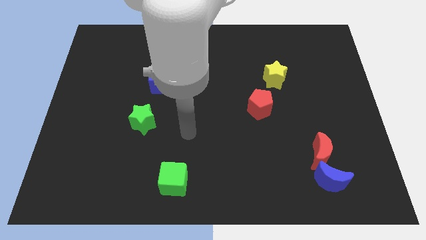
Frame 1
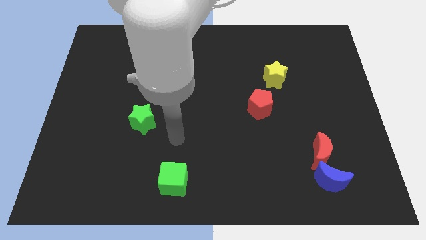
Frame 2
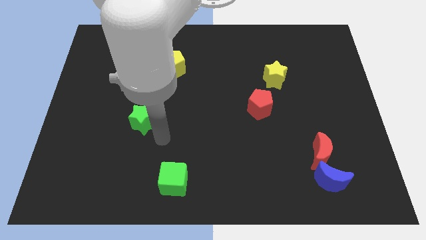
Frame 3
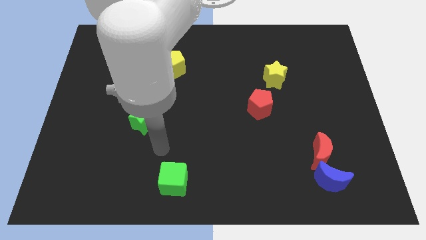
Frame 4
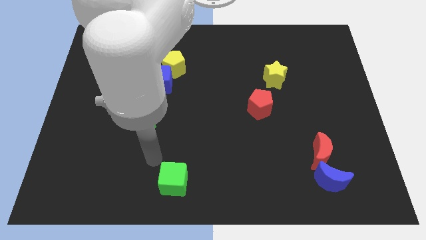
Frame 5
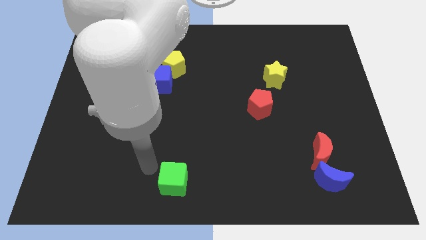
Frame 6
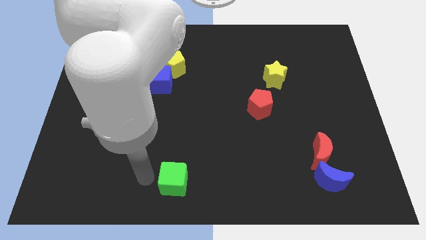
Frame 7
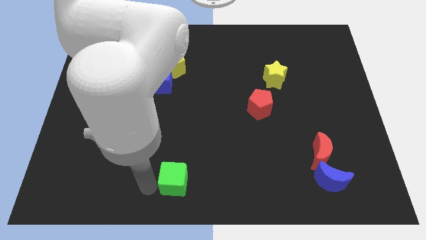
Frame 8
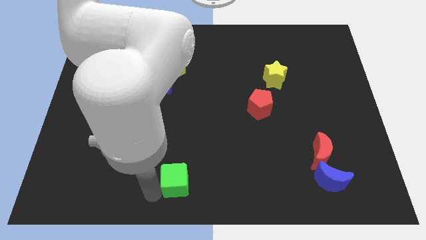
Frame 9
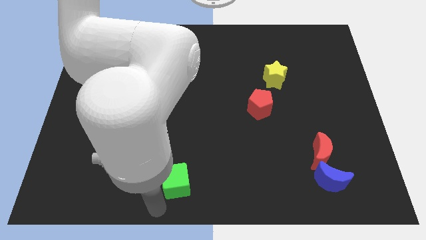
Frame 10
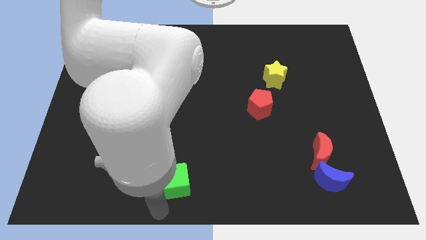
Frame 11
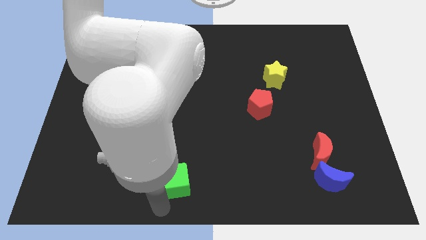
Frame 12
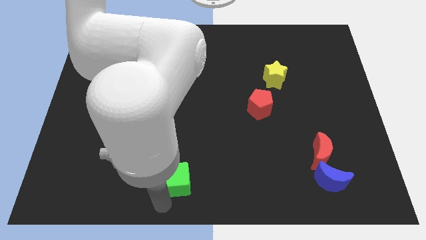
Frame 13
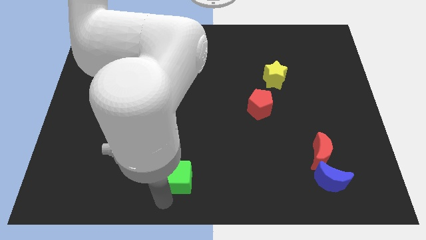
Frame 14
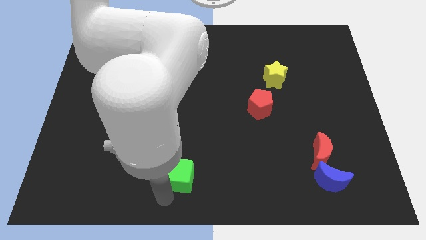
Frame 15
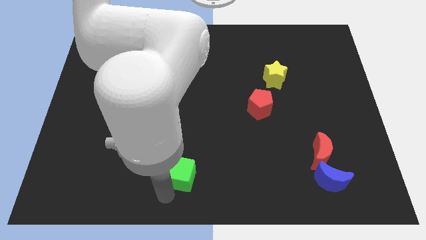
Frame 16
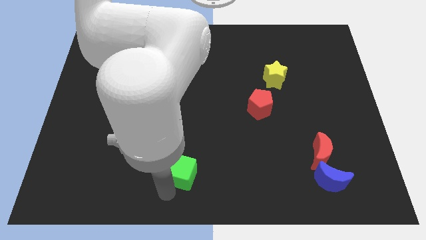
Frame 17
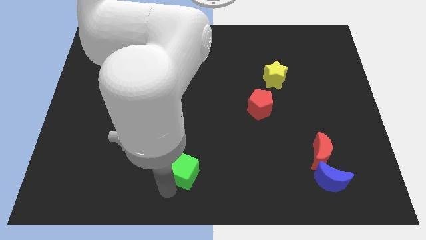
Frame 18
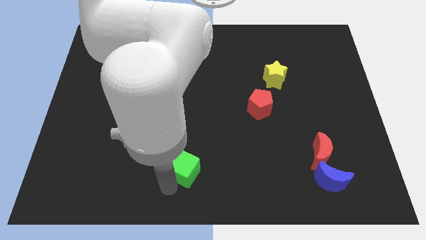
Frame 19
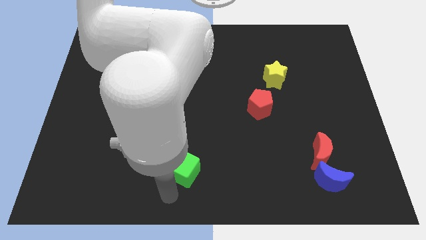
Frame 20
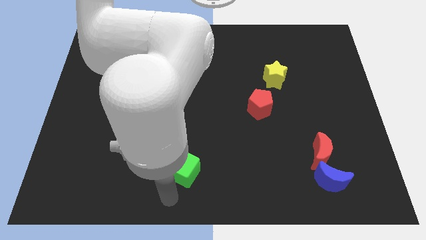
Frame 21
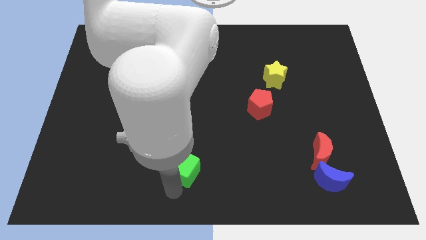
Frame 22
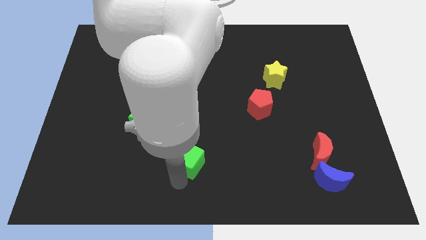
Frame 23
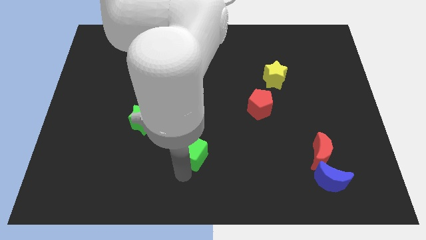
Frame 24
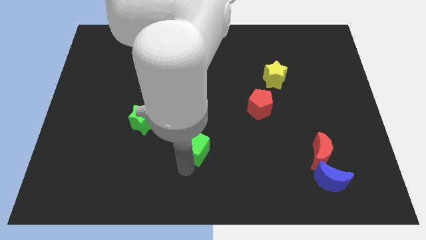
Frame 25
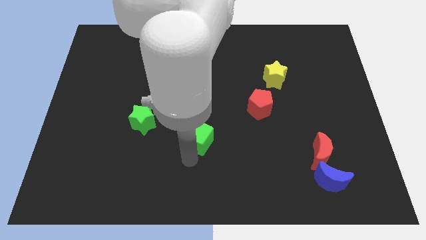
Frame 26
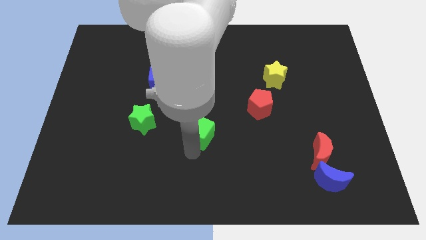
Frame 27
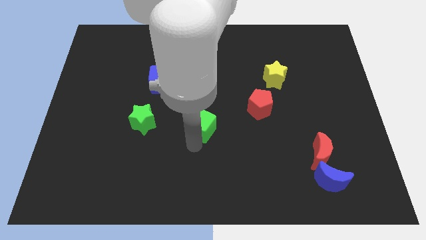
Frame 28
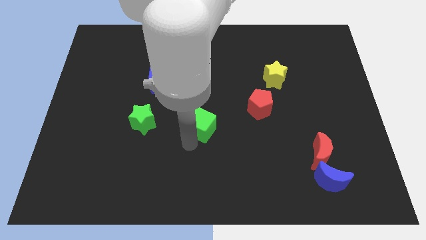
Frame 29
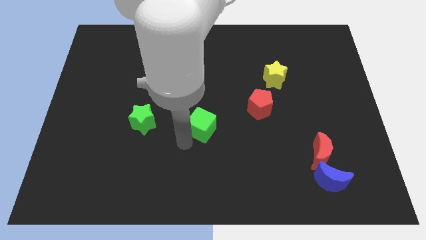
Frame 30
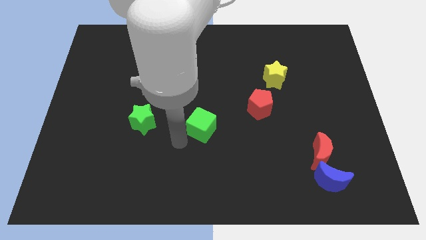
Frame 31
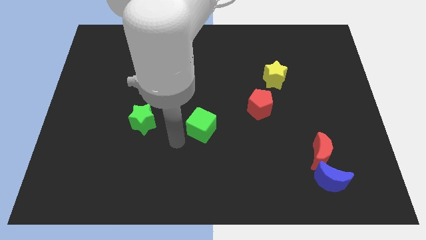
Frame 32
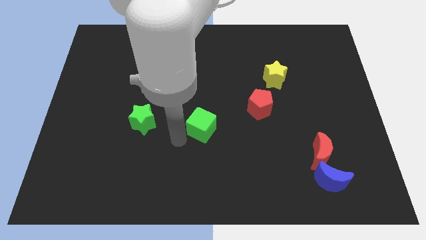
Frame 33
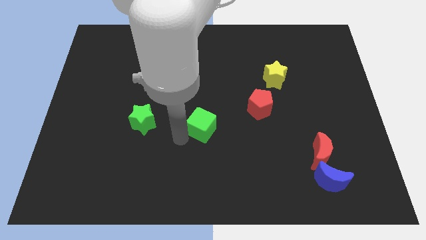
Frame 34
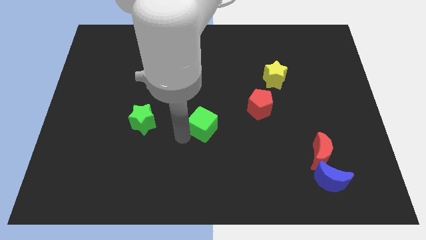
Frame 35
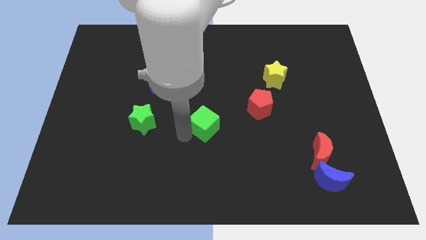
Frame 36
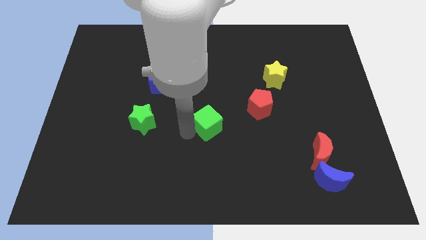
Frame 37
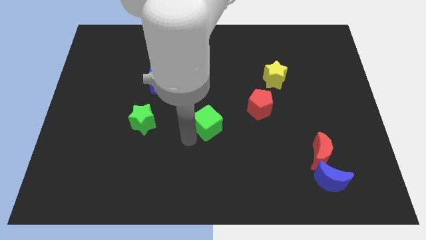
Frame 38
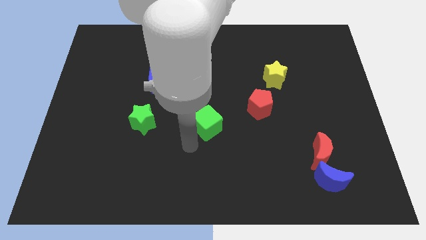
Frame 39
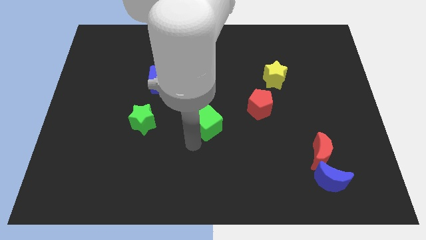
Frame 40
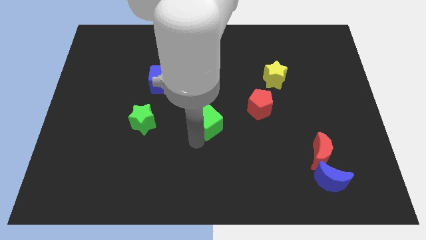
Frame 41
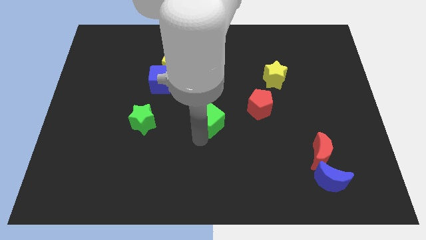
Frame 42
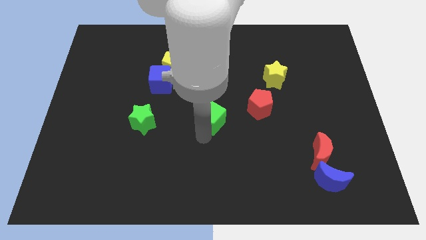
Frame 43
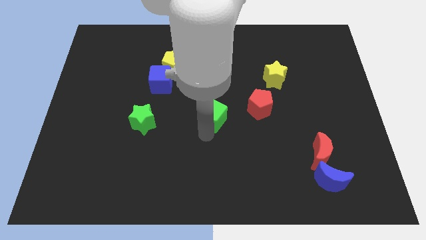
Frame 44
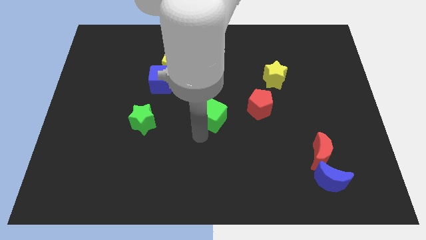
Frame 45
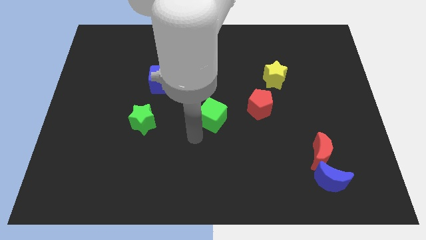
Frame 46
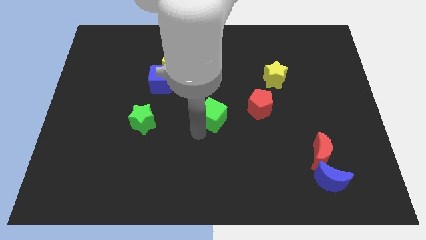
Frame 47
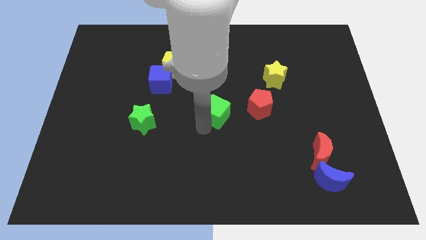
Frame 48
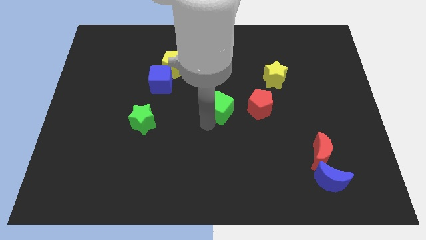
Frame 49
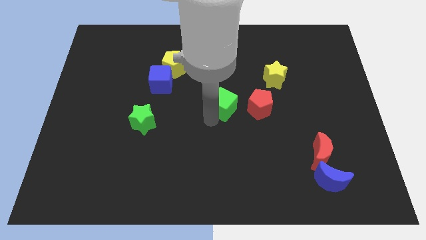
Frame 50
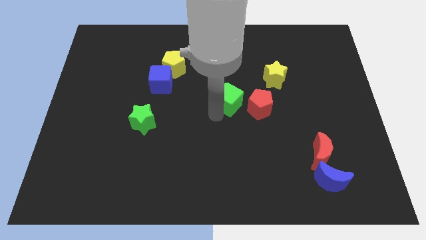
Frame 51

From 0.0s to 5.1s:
slide the green cube diagonally up and to the left of the red pentagon

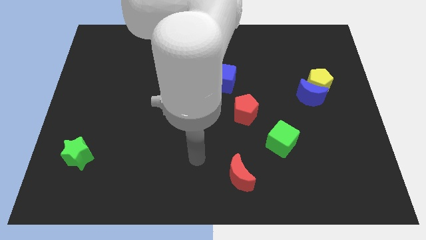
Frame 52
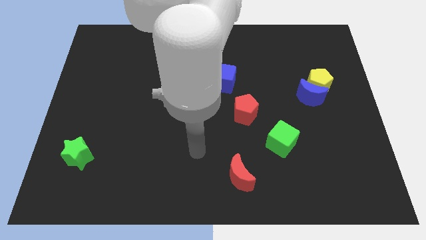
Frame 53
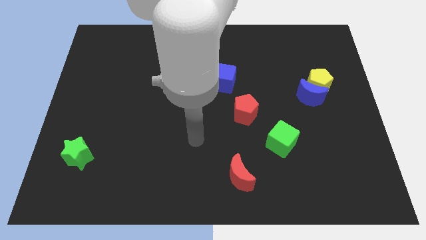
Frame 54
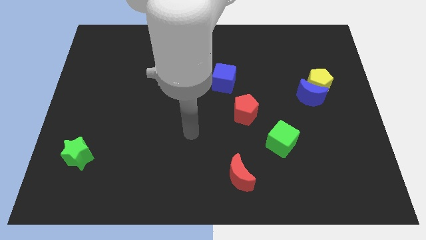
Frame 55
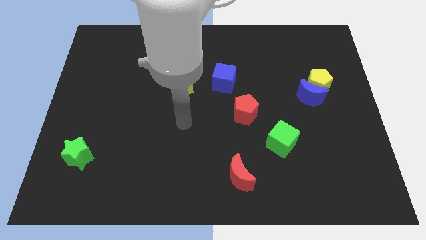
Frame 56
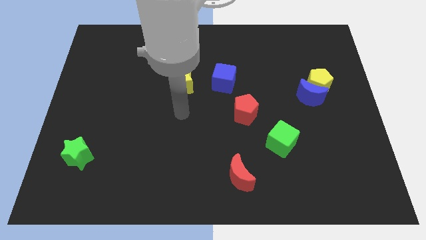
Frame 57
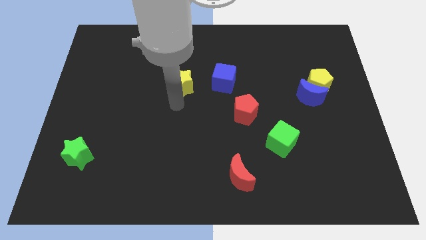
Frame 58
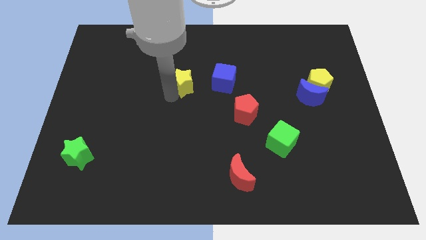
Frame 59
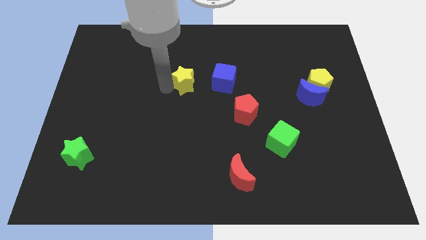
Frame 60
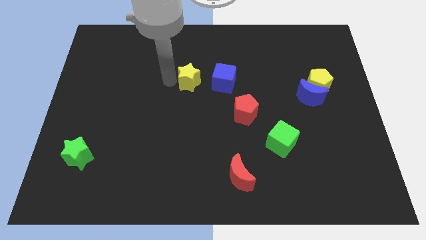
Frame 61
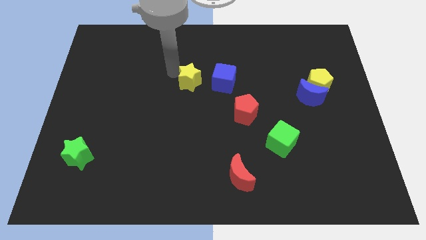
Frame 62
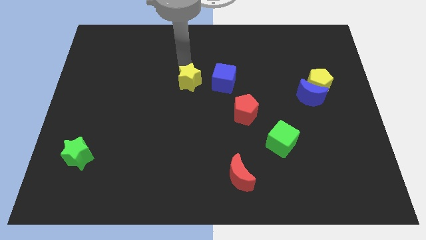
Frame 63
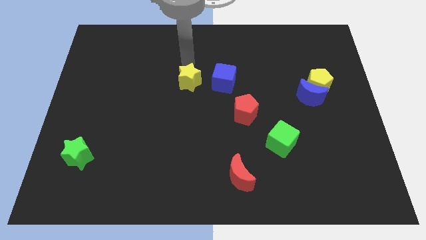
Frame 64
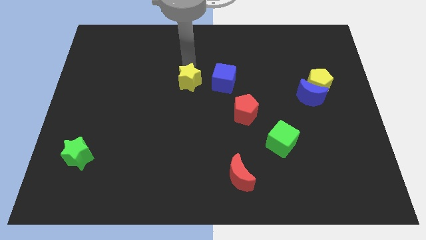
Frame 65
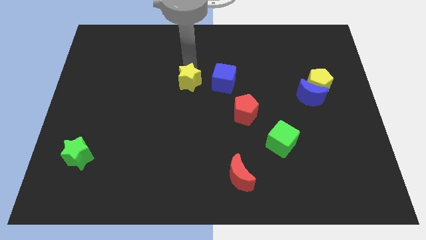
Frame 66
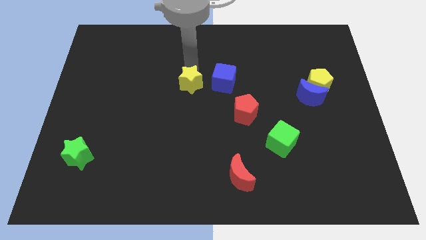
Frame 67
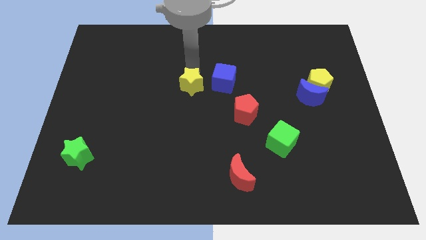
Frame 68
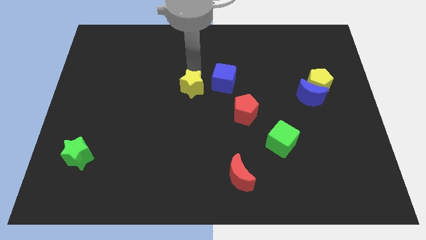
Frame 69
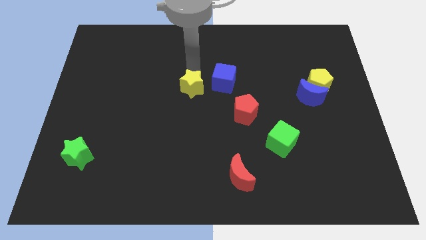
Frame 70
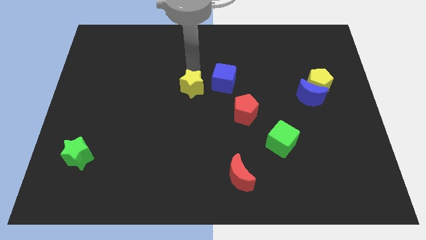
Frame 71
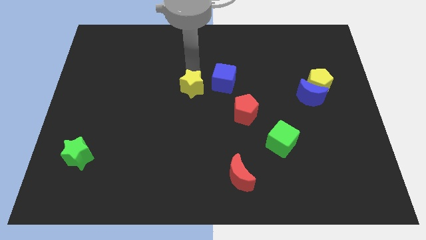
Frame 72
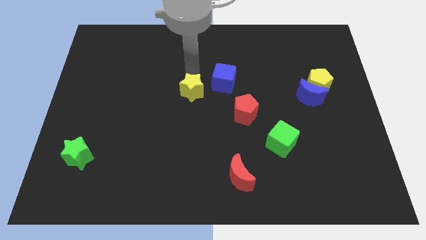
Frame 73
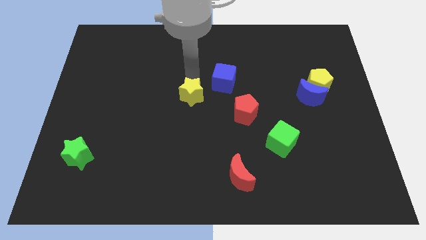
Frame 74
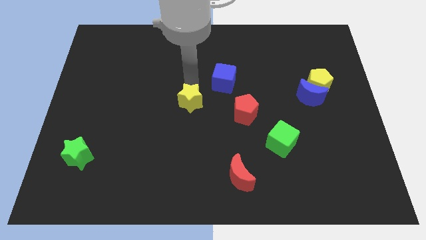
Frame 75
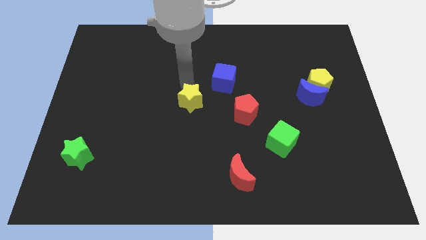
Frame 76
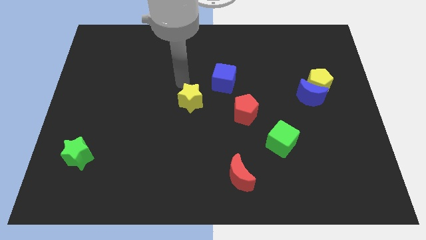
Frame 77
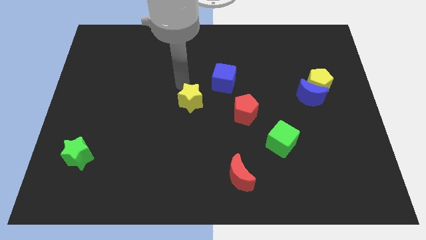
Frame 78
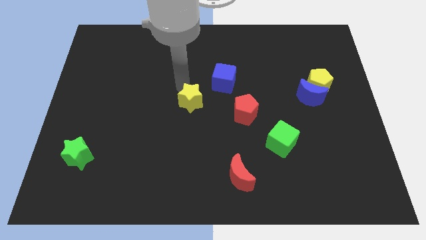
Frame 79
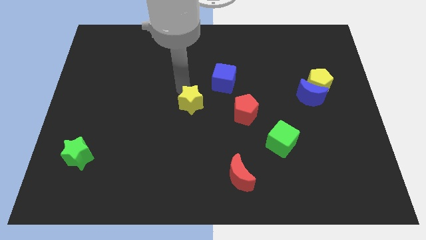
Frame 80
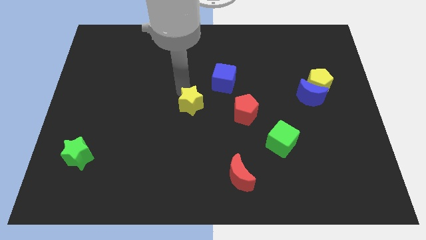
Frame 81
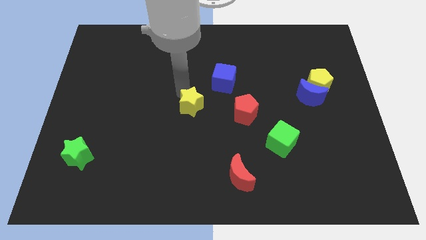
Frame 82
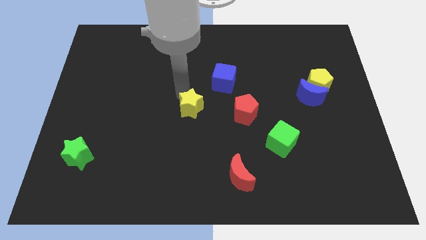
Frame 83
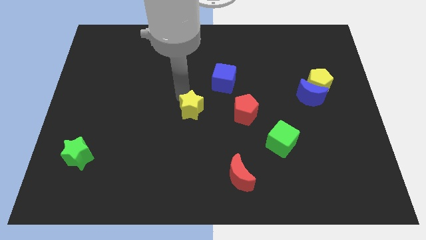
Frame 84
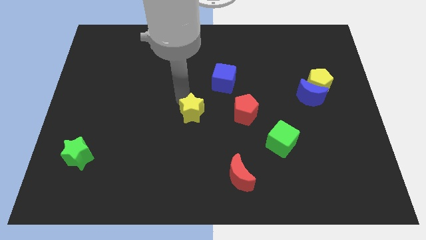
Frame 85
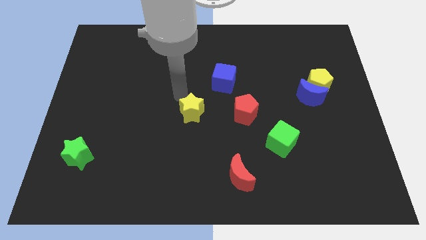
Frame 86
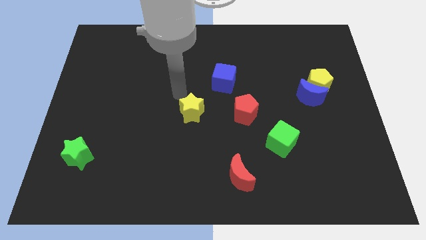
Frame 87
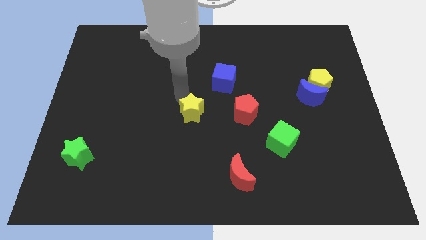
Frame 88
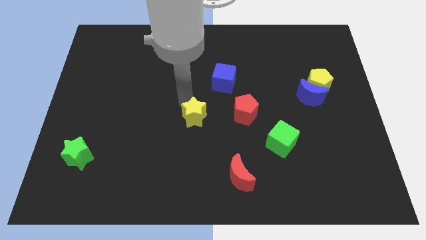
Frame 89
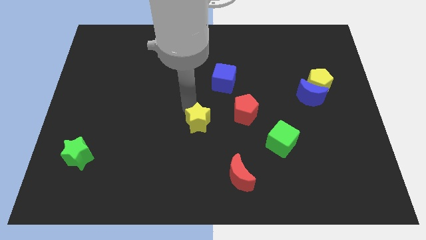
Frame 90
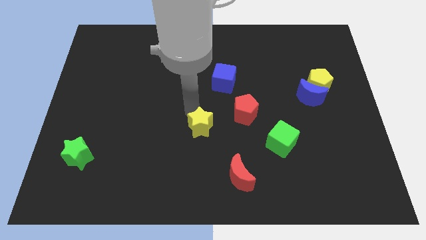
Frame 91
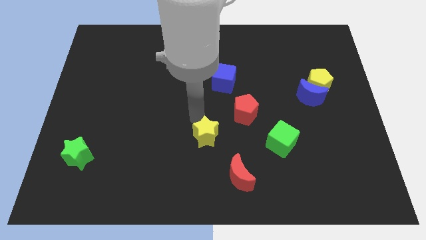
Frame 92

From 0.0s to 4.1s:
slide the yellow star to the top left side of the red moon
